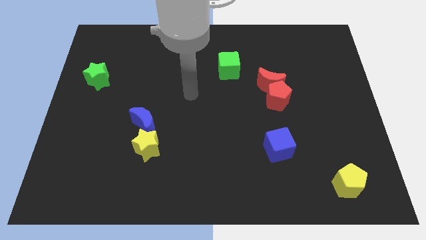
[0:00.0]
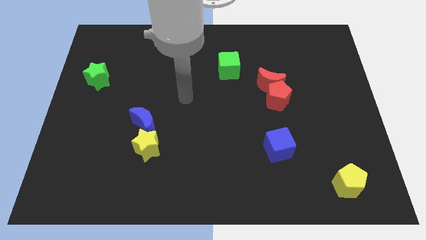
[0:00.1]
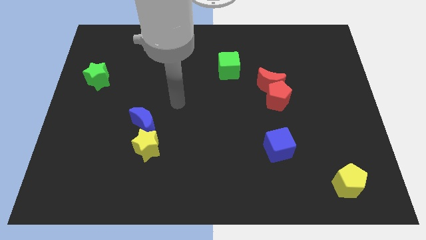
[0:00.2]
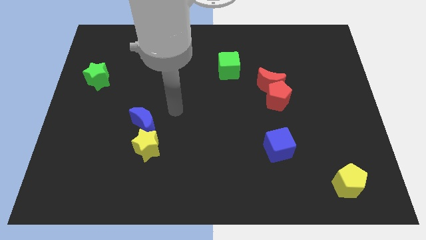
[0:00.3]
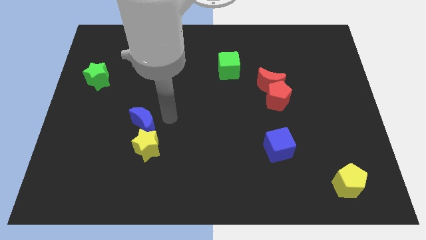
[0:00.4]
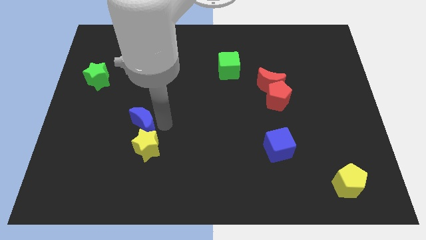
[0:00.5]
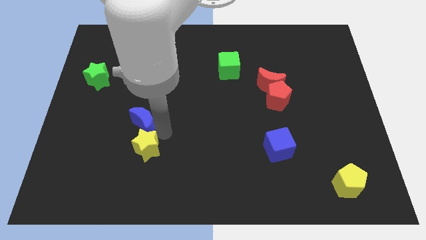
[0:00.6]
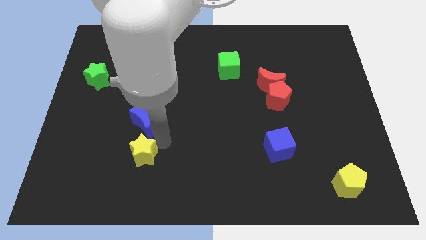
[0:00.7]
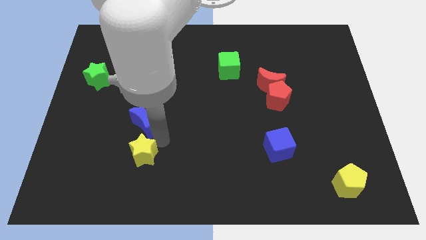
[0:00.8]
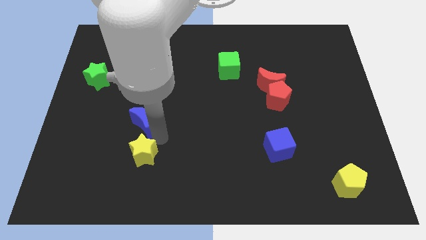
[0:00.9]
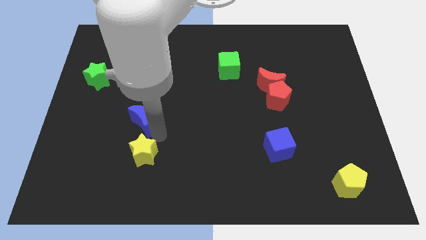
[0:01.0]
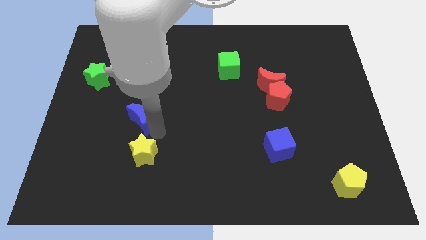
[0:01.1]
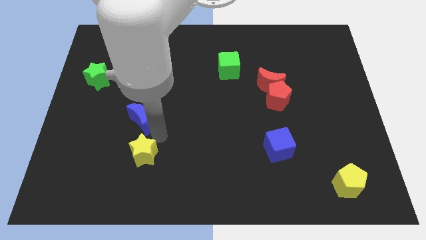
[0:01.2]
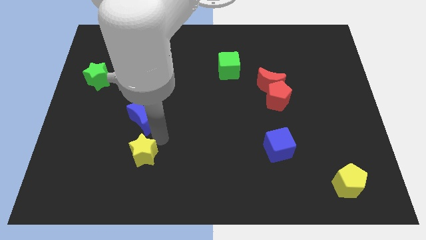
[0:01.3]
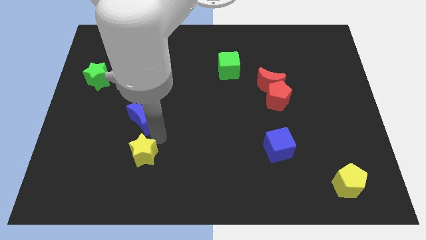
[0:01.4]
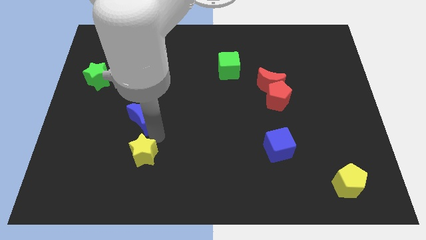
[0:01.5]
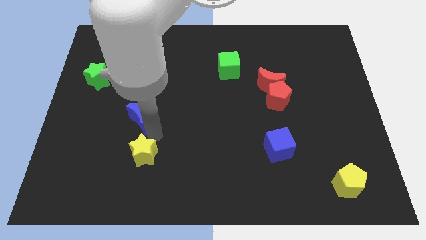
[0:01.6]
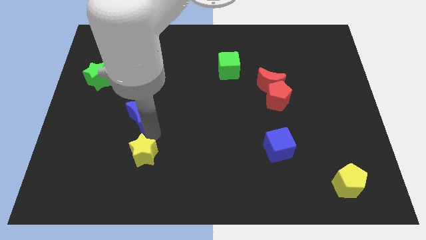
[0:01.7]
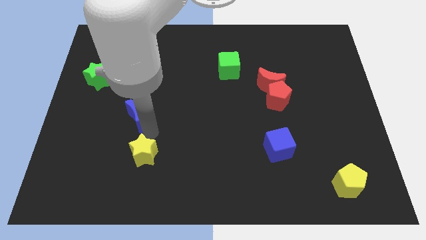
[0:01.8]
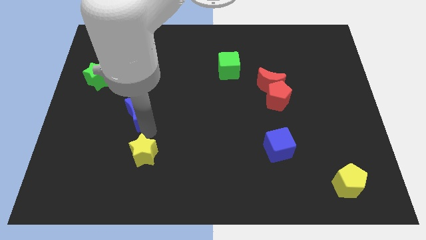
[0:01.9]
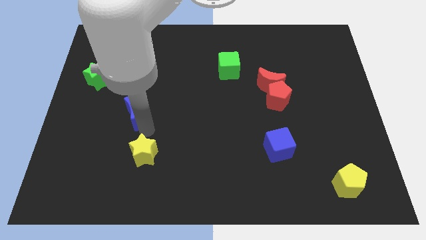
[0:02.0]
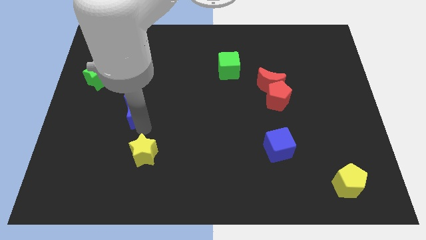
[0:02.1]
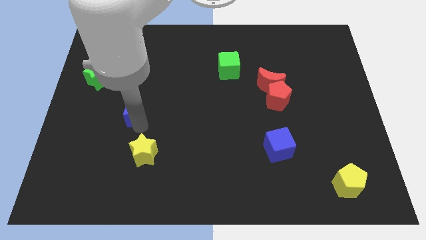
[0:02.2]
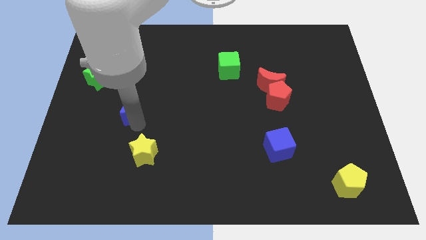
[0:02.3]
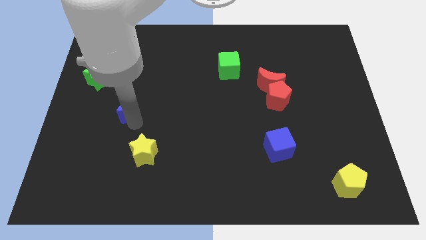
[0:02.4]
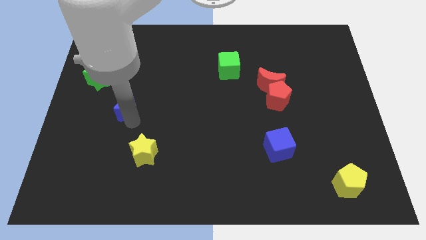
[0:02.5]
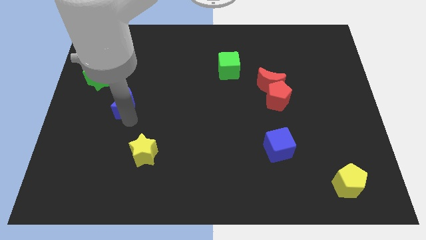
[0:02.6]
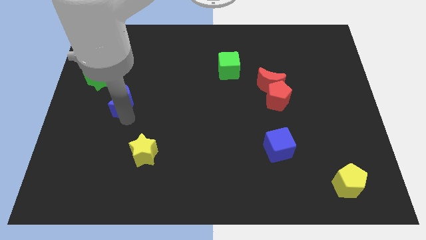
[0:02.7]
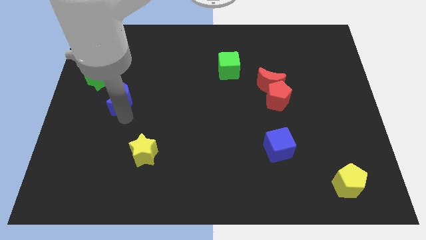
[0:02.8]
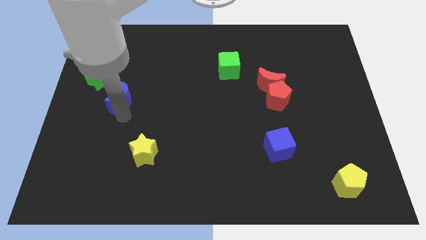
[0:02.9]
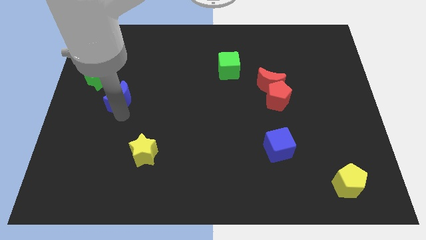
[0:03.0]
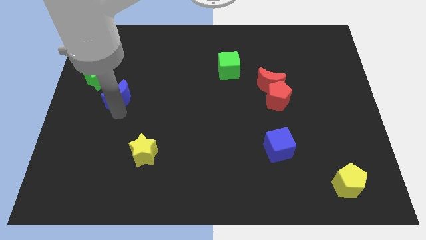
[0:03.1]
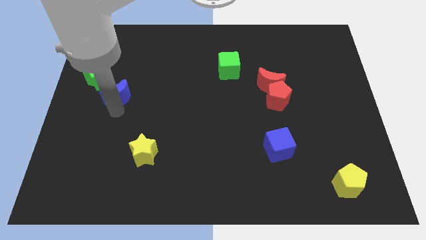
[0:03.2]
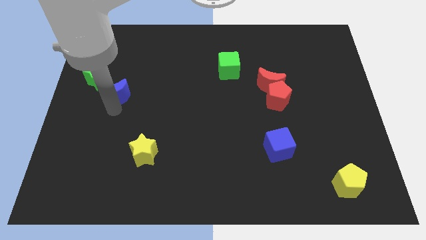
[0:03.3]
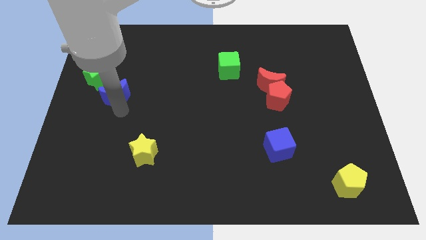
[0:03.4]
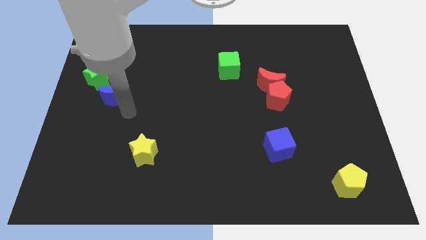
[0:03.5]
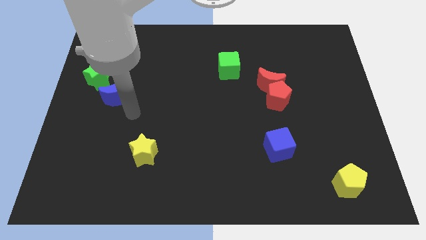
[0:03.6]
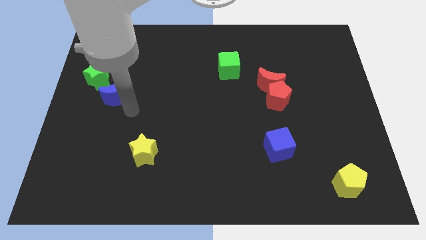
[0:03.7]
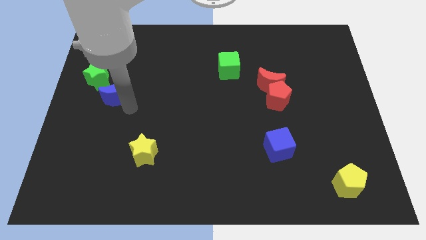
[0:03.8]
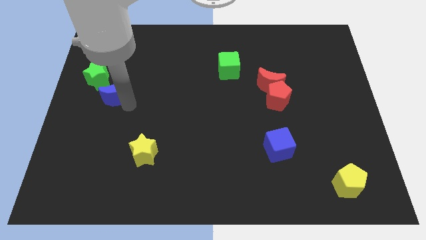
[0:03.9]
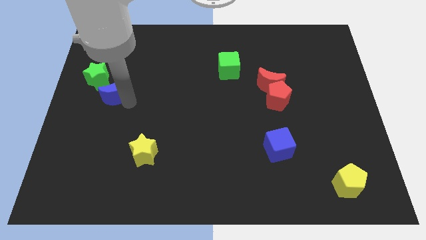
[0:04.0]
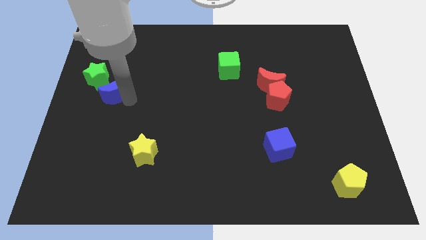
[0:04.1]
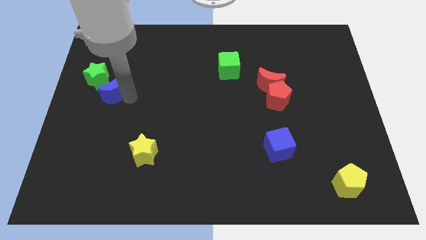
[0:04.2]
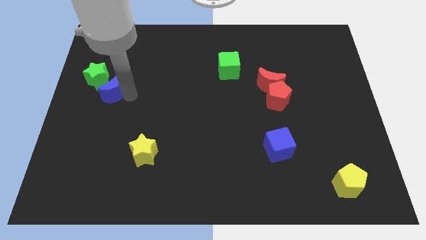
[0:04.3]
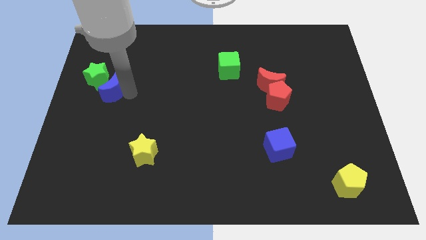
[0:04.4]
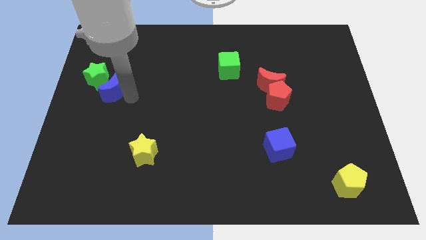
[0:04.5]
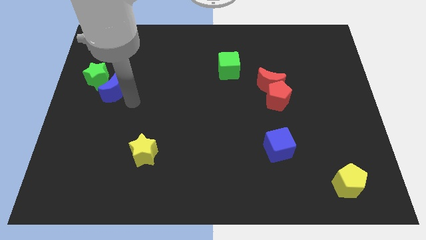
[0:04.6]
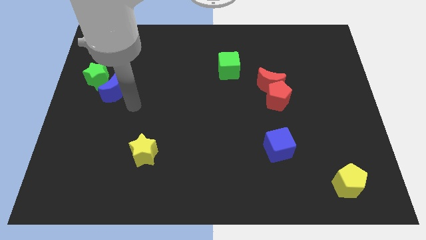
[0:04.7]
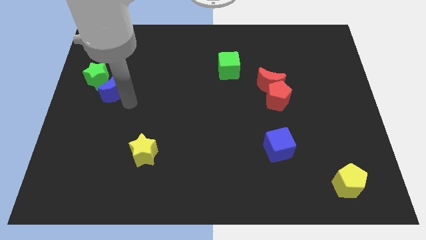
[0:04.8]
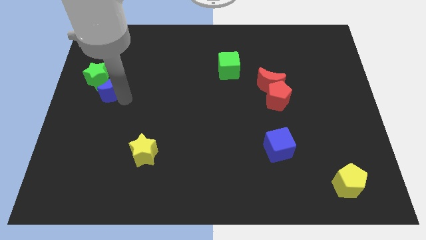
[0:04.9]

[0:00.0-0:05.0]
slide the blue moon next to the green star

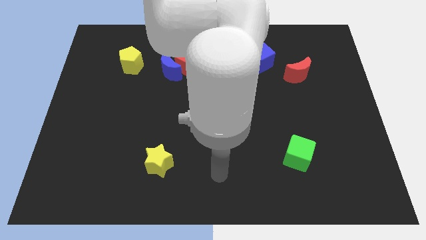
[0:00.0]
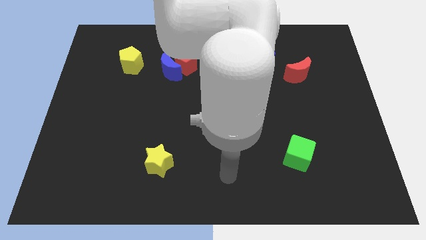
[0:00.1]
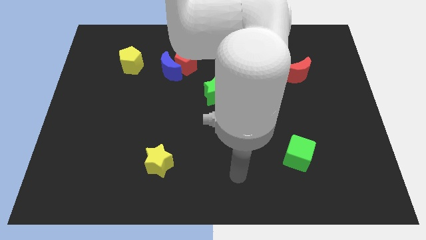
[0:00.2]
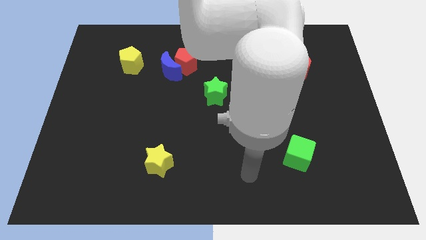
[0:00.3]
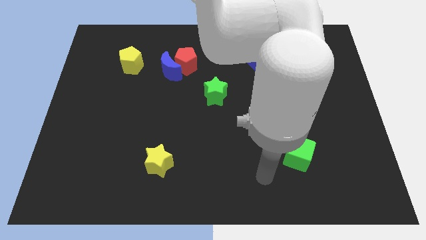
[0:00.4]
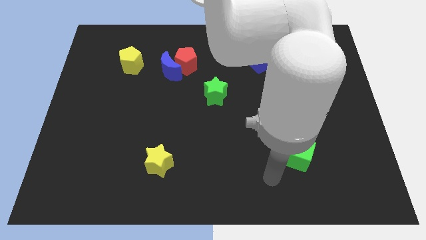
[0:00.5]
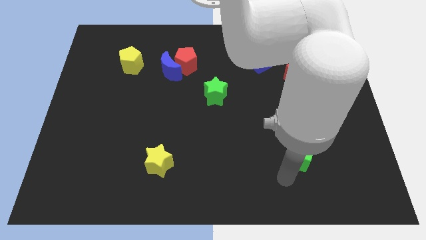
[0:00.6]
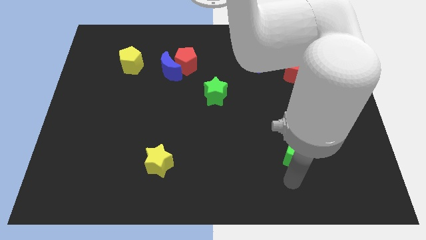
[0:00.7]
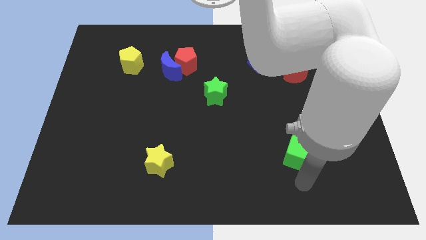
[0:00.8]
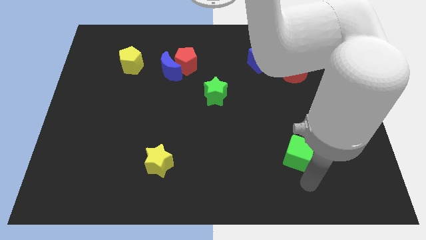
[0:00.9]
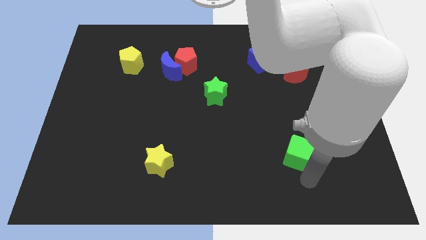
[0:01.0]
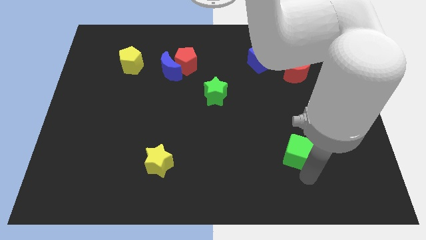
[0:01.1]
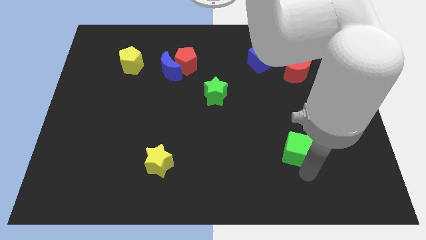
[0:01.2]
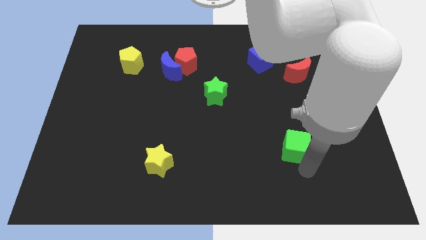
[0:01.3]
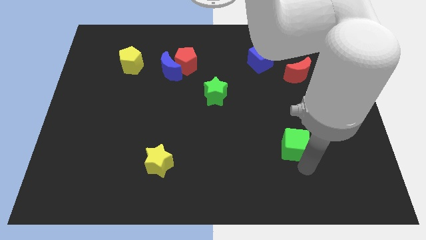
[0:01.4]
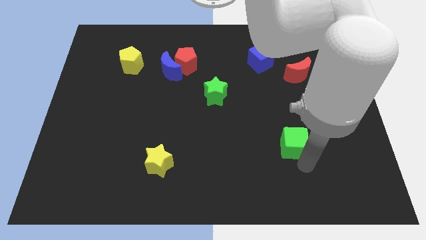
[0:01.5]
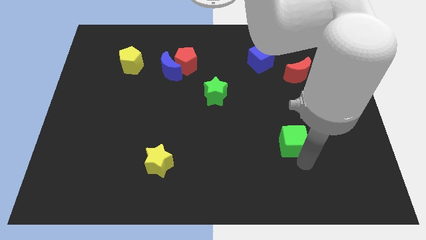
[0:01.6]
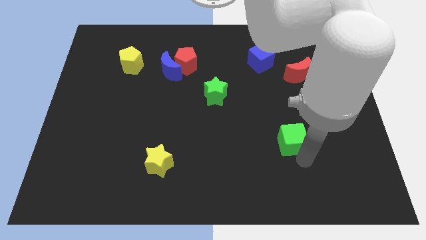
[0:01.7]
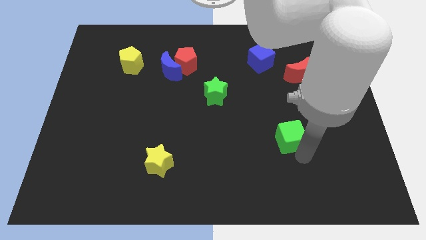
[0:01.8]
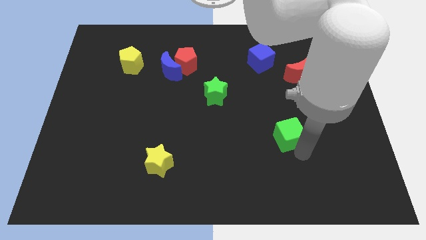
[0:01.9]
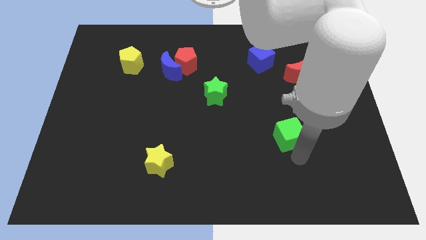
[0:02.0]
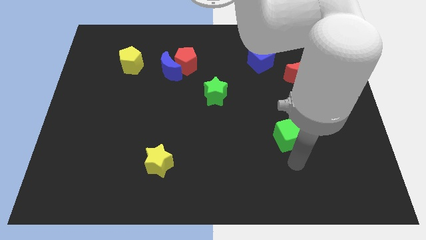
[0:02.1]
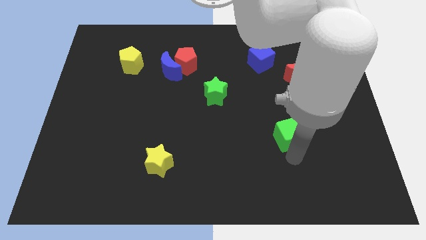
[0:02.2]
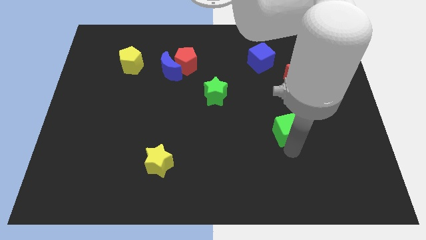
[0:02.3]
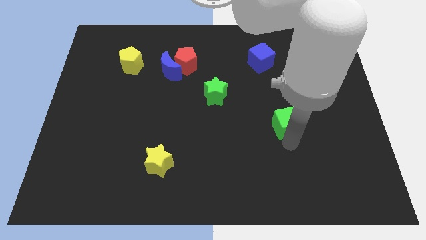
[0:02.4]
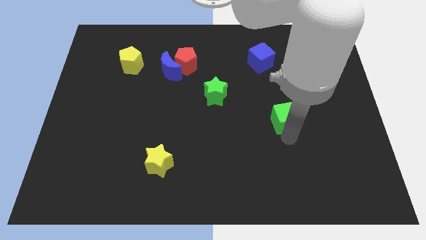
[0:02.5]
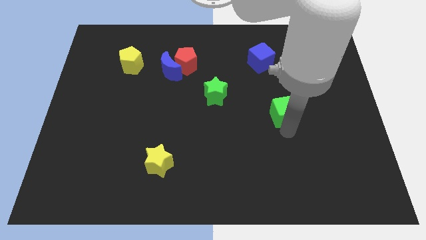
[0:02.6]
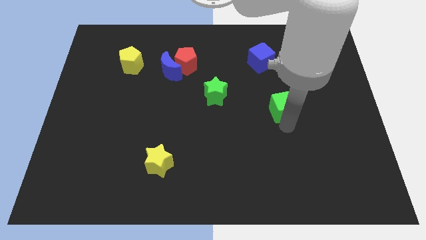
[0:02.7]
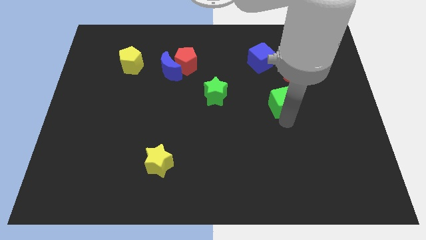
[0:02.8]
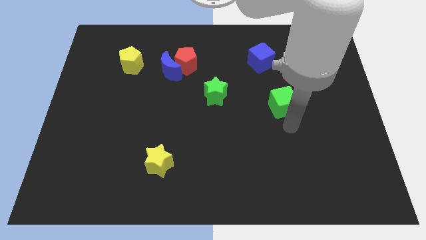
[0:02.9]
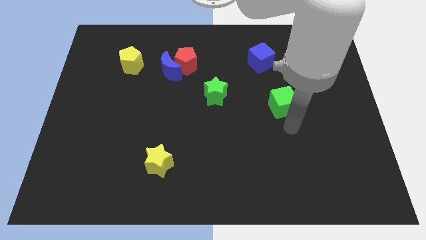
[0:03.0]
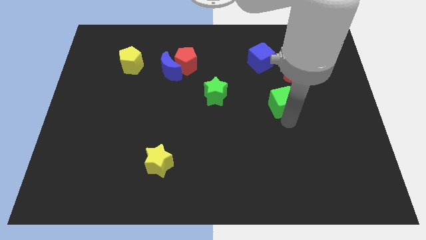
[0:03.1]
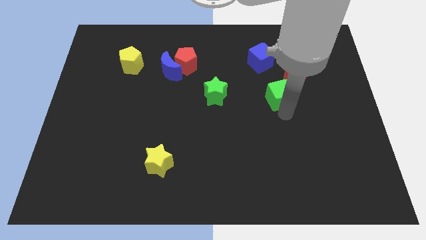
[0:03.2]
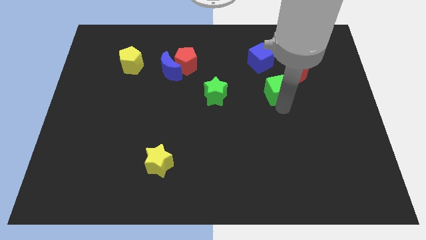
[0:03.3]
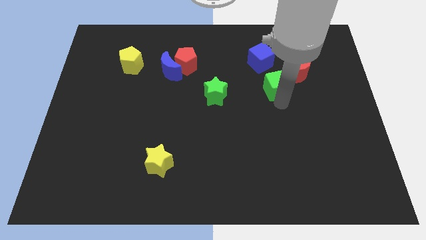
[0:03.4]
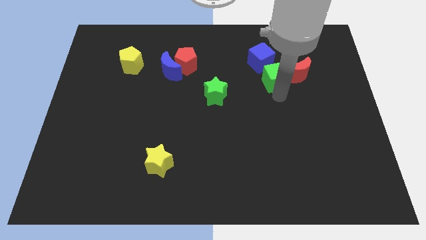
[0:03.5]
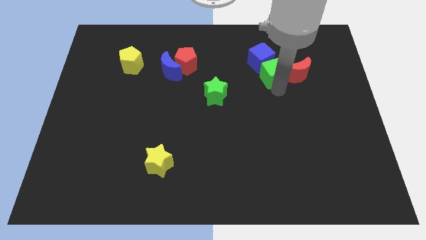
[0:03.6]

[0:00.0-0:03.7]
slide the green cube towards the blue cube
